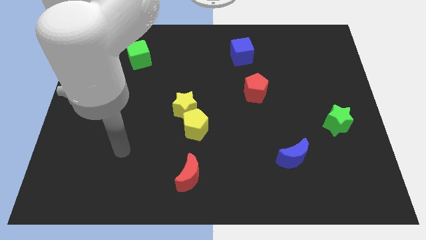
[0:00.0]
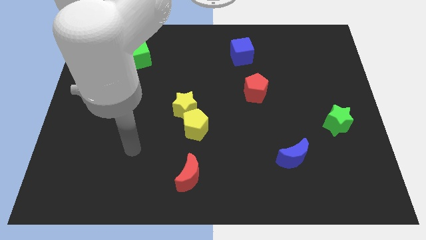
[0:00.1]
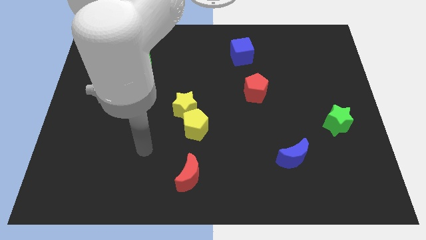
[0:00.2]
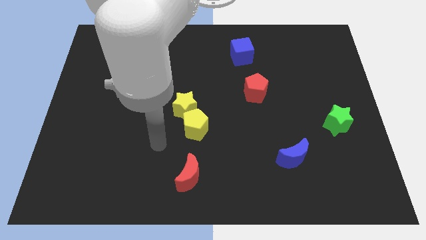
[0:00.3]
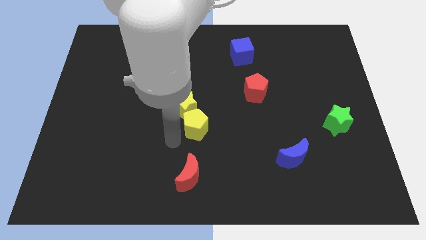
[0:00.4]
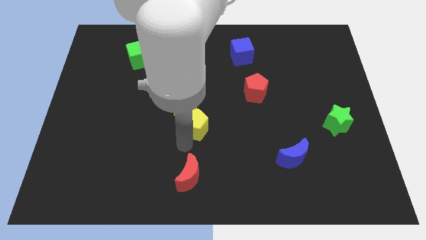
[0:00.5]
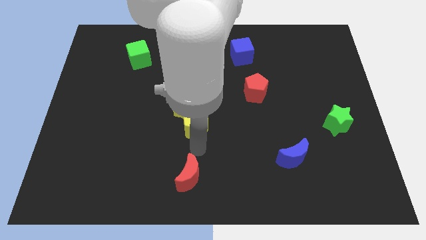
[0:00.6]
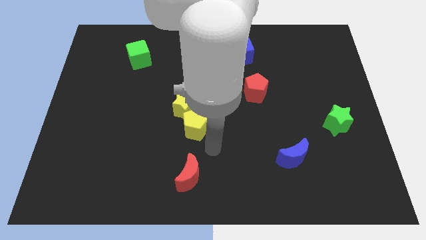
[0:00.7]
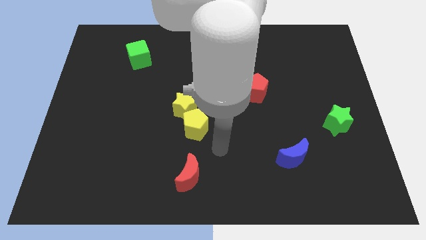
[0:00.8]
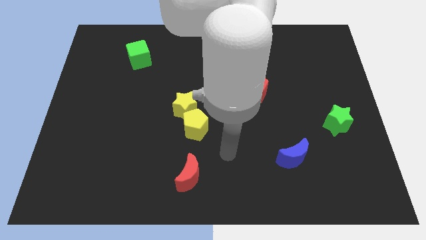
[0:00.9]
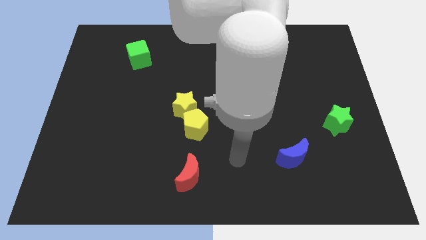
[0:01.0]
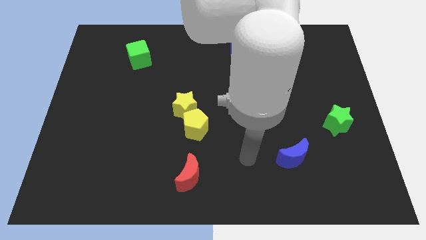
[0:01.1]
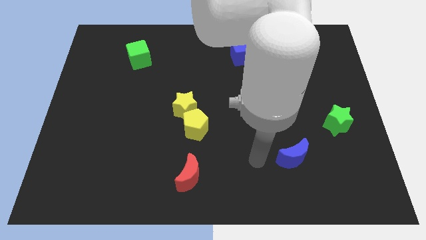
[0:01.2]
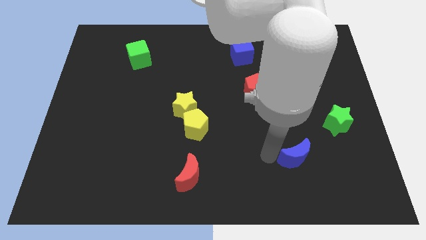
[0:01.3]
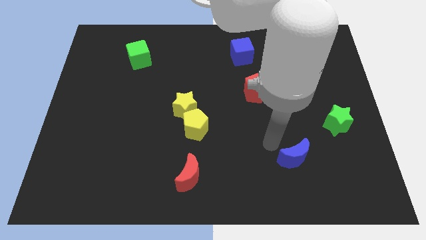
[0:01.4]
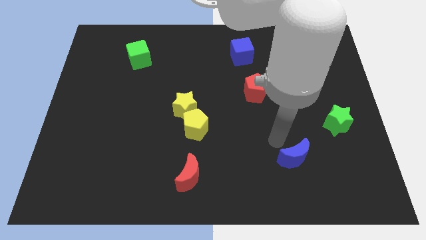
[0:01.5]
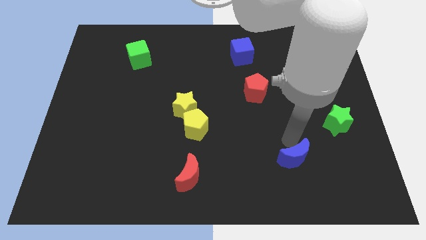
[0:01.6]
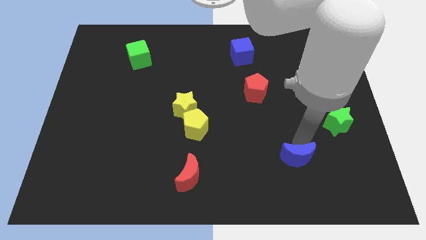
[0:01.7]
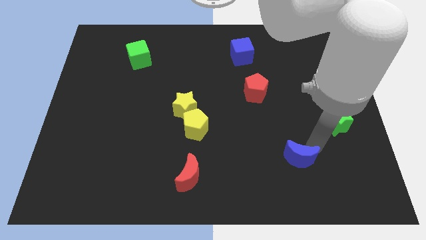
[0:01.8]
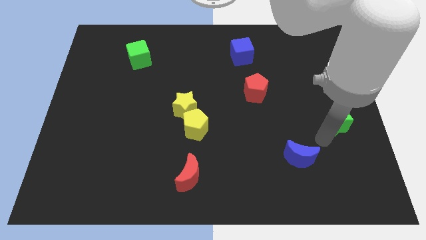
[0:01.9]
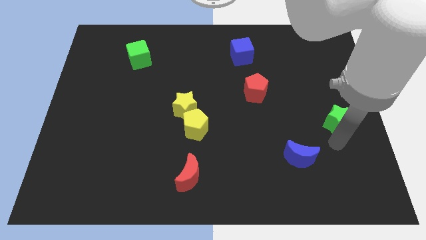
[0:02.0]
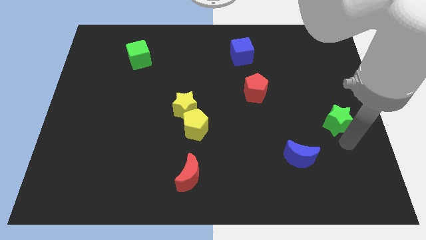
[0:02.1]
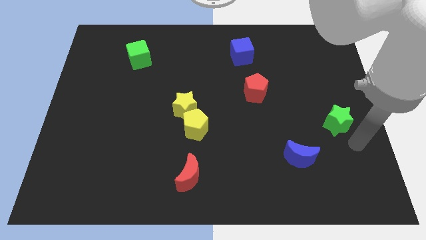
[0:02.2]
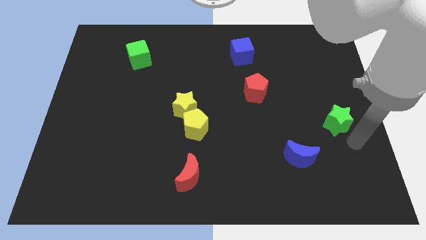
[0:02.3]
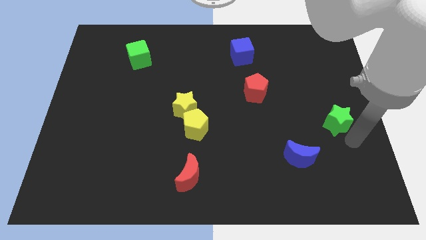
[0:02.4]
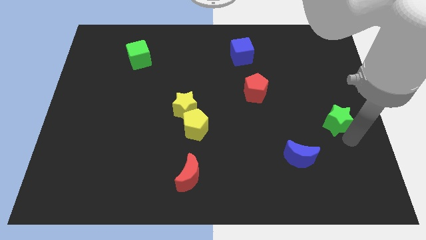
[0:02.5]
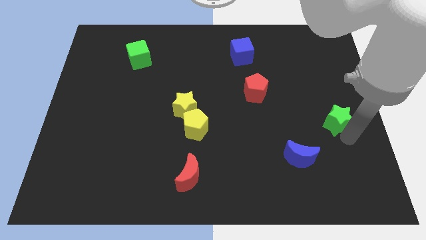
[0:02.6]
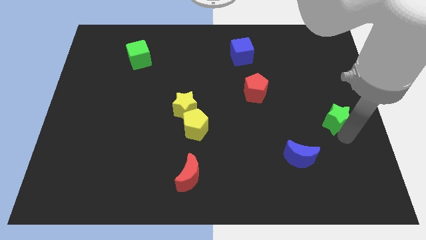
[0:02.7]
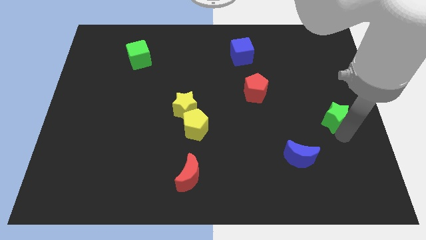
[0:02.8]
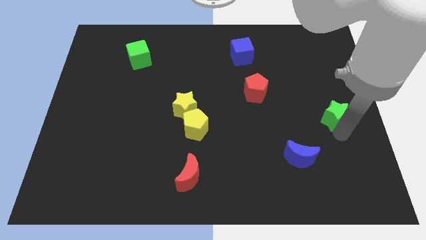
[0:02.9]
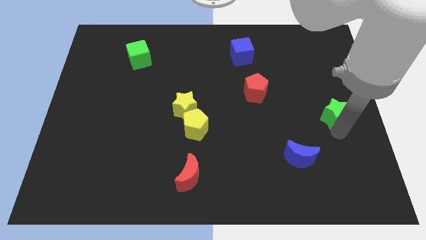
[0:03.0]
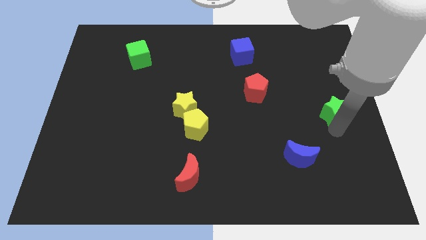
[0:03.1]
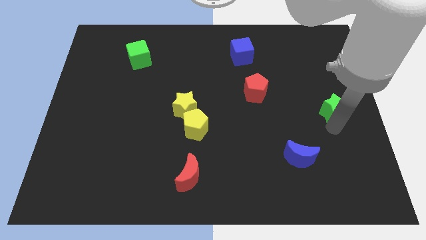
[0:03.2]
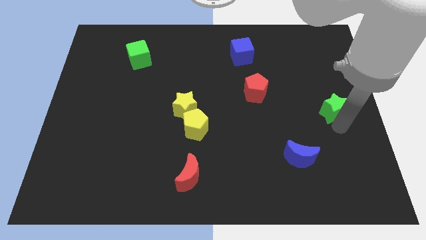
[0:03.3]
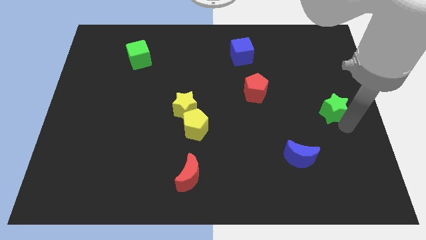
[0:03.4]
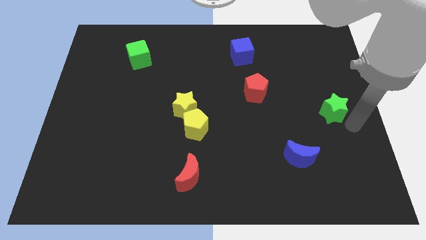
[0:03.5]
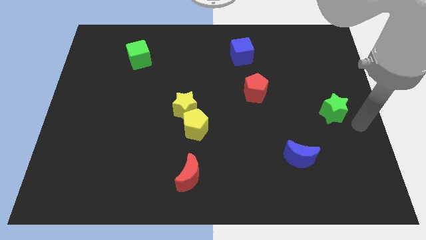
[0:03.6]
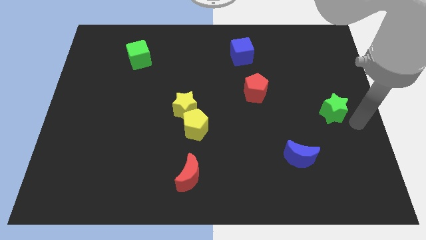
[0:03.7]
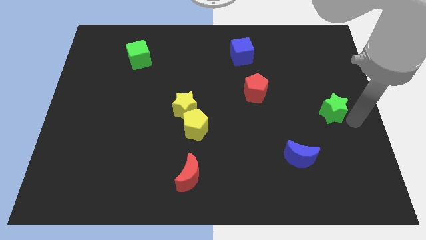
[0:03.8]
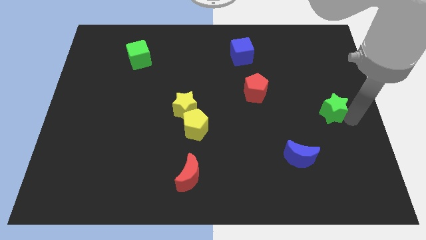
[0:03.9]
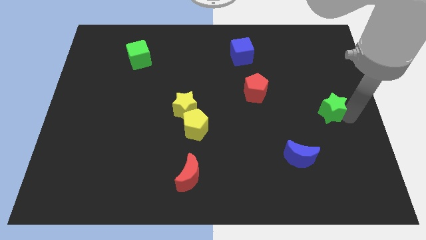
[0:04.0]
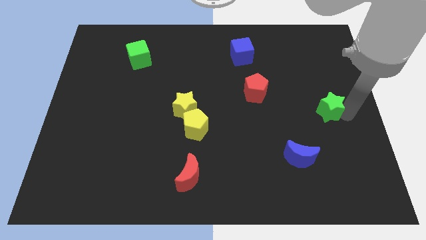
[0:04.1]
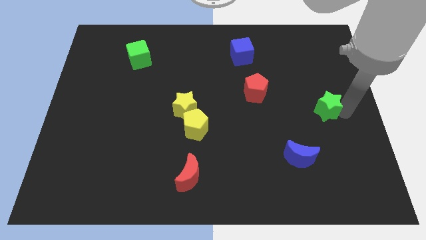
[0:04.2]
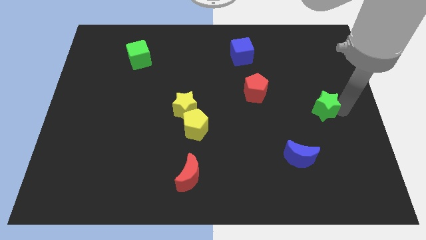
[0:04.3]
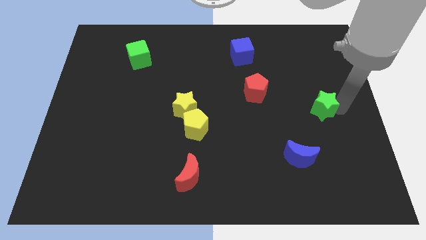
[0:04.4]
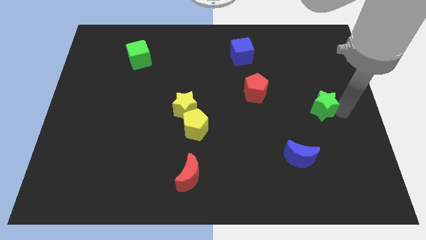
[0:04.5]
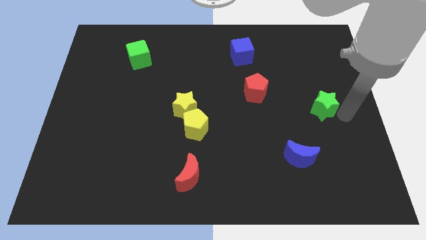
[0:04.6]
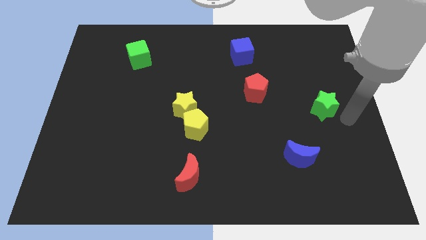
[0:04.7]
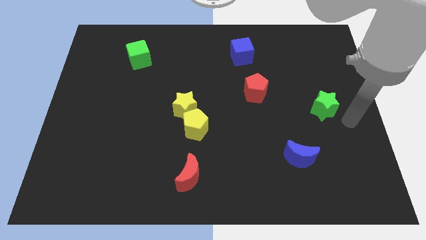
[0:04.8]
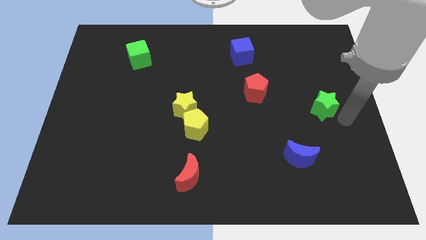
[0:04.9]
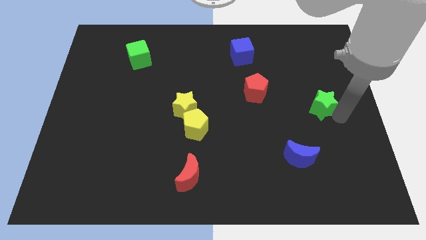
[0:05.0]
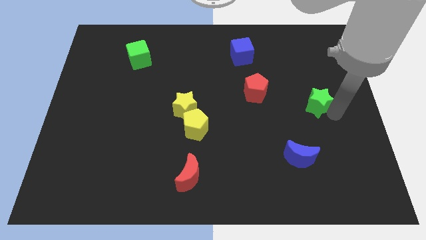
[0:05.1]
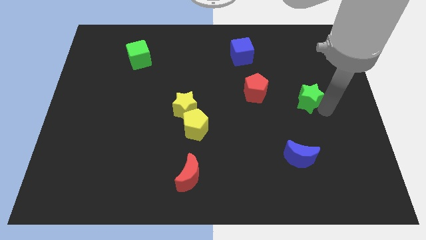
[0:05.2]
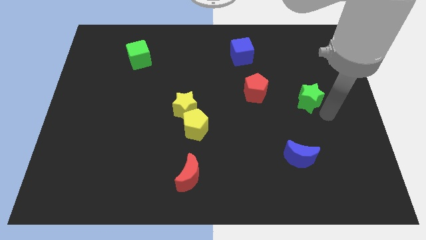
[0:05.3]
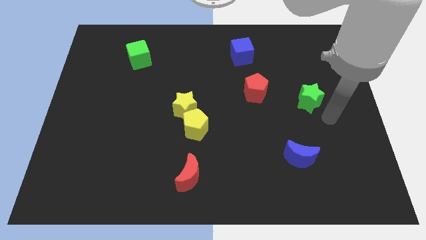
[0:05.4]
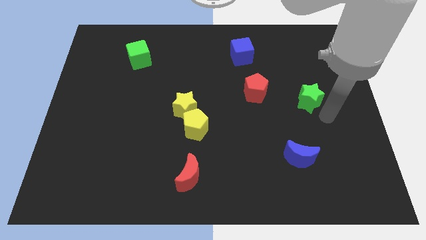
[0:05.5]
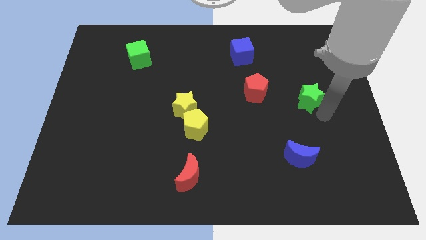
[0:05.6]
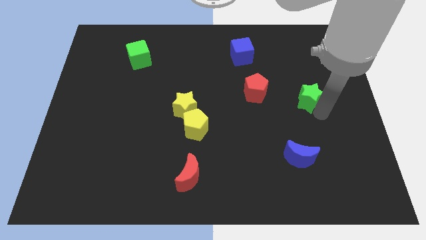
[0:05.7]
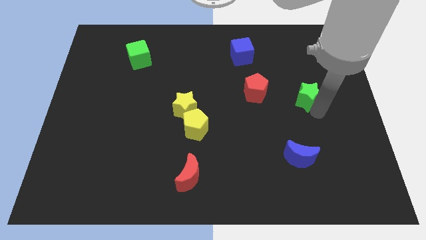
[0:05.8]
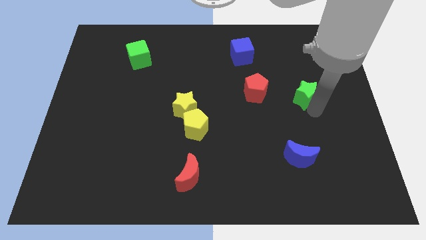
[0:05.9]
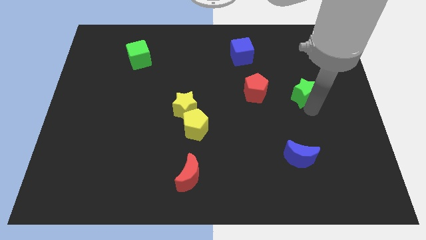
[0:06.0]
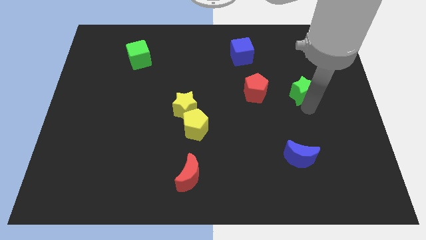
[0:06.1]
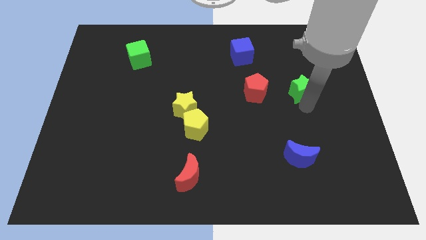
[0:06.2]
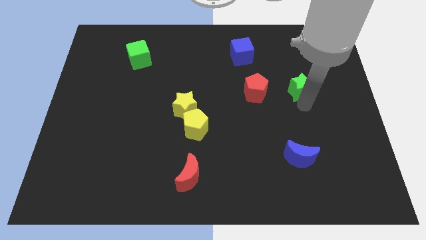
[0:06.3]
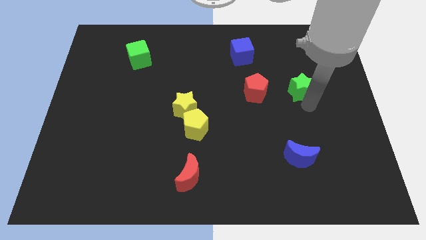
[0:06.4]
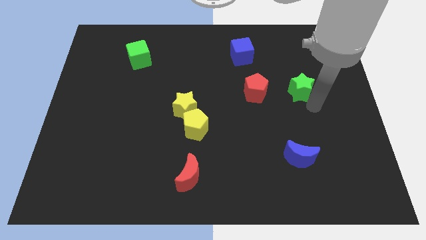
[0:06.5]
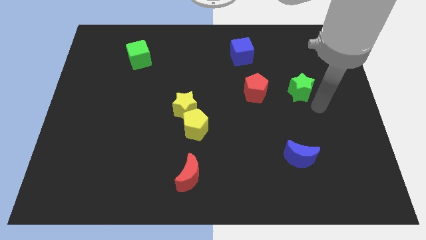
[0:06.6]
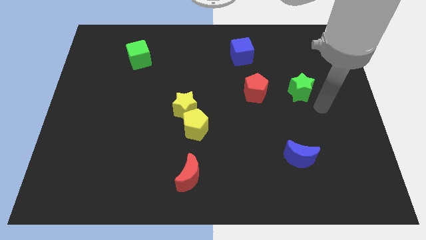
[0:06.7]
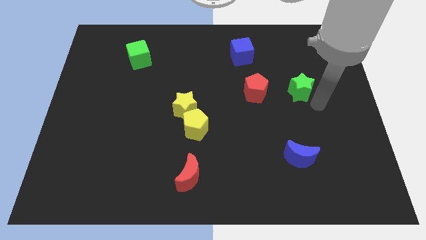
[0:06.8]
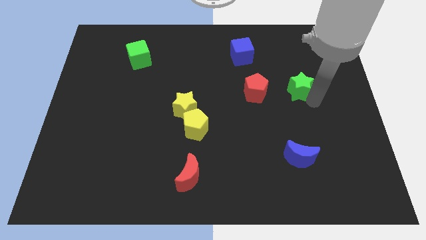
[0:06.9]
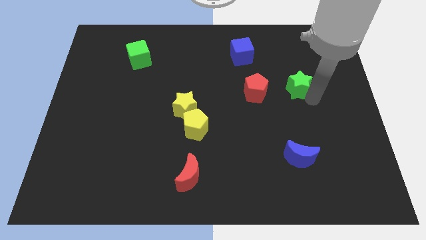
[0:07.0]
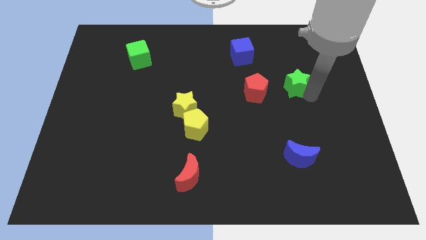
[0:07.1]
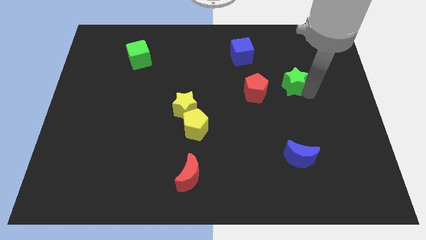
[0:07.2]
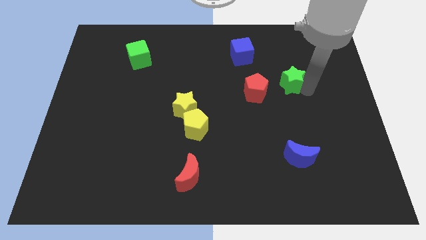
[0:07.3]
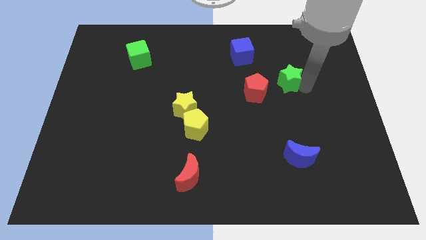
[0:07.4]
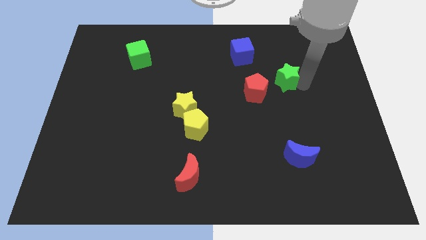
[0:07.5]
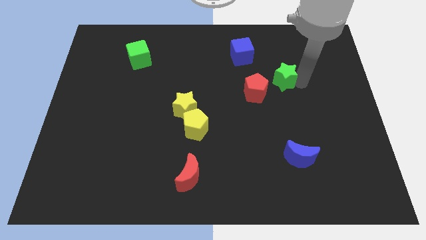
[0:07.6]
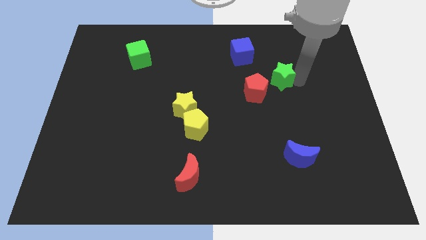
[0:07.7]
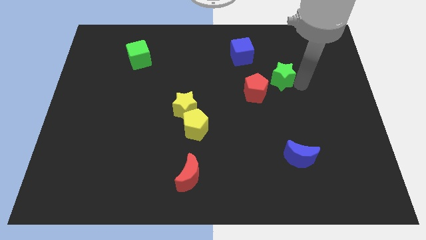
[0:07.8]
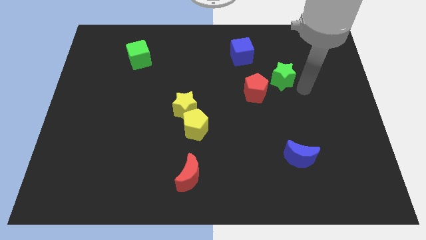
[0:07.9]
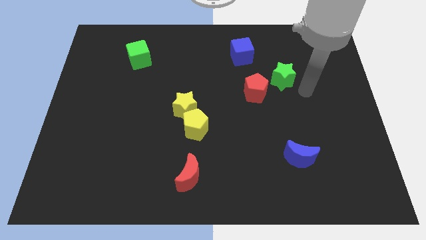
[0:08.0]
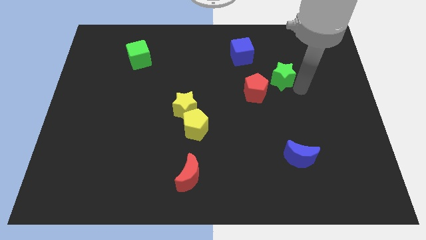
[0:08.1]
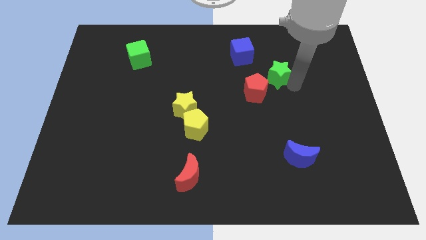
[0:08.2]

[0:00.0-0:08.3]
move the green star to the bottom right side of the blue cube
